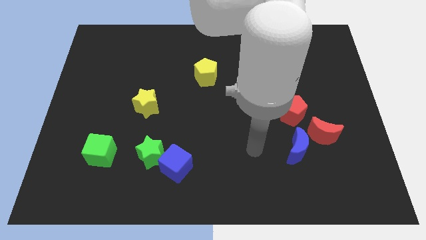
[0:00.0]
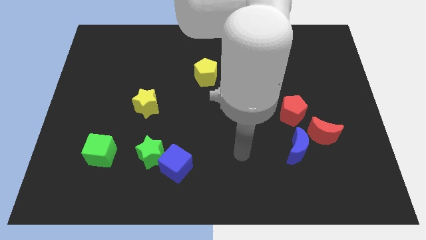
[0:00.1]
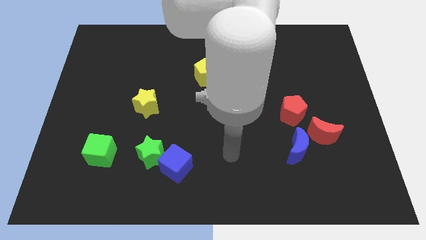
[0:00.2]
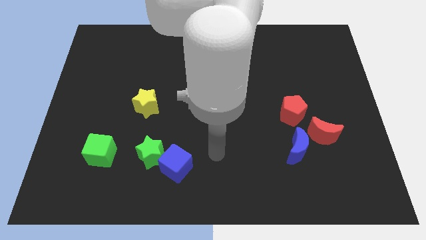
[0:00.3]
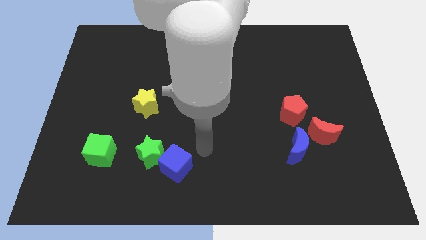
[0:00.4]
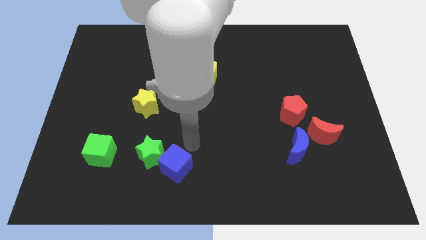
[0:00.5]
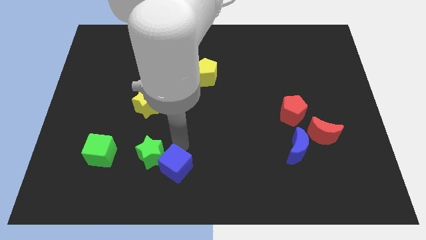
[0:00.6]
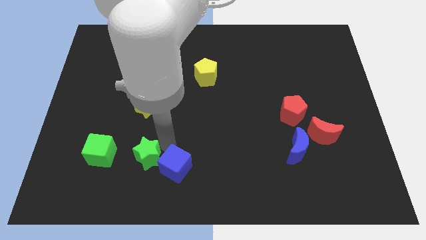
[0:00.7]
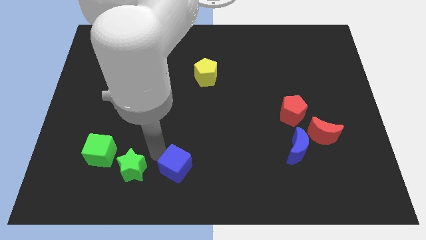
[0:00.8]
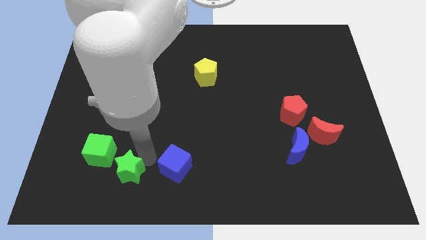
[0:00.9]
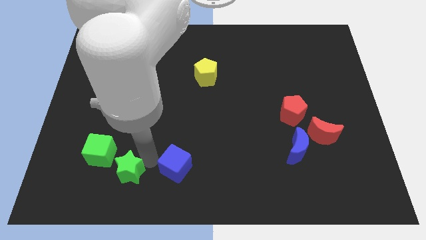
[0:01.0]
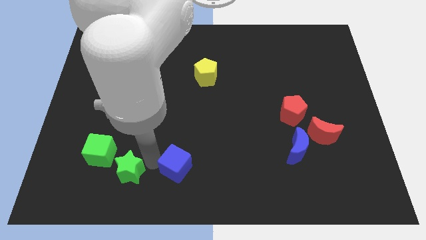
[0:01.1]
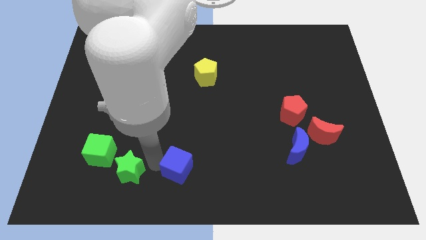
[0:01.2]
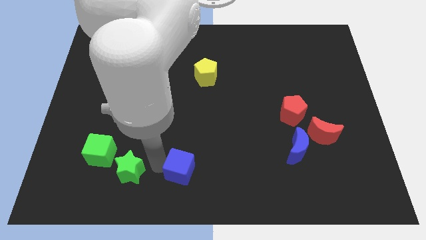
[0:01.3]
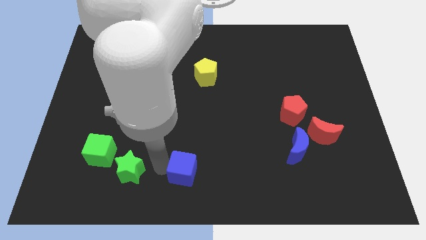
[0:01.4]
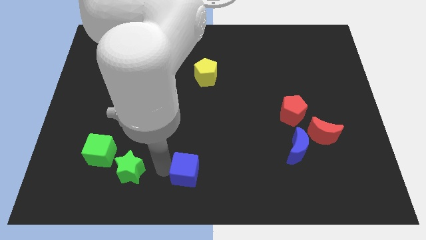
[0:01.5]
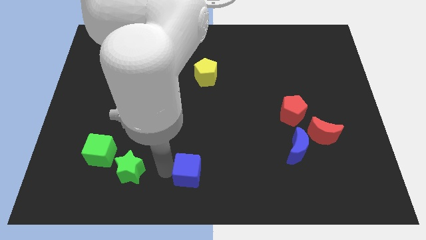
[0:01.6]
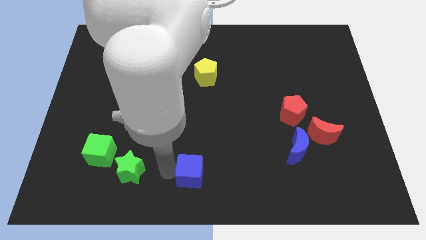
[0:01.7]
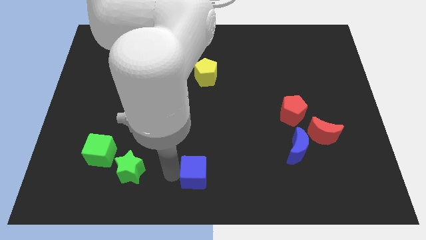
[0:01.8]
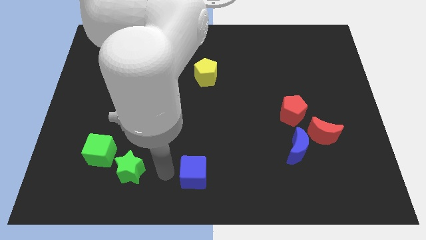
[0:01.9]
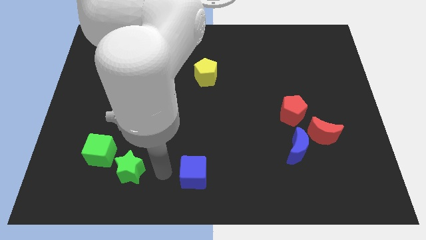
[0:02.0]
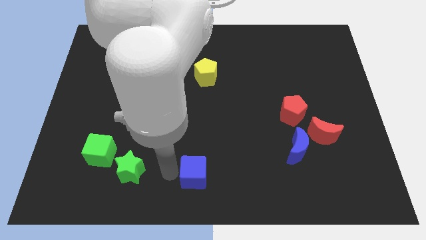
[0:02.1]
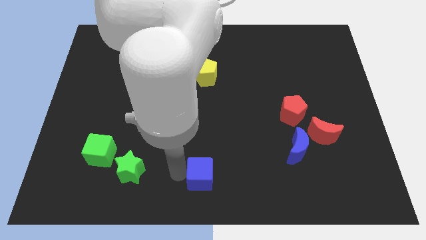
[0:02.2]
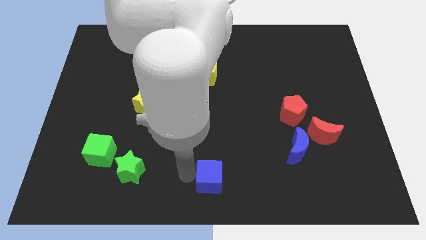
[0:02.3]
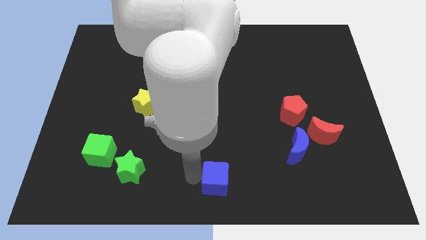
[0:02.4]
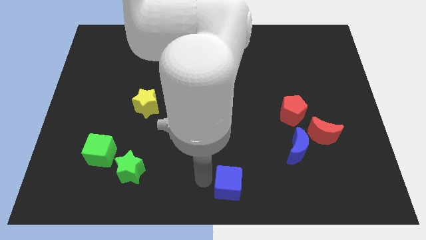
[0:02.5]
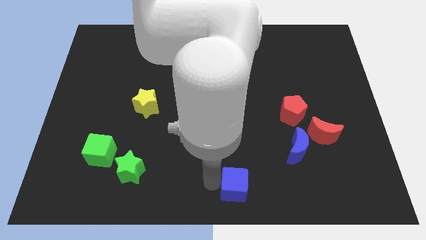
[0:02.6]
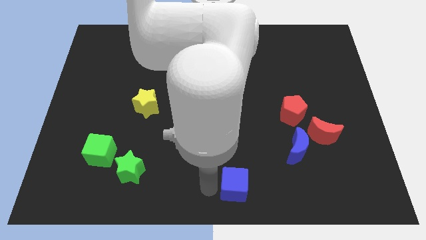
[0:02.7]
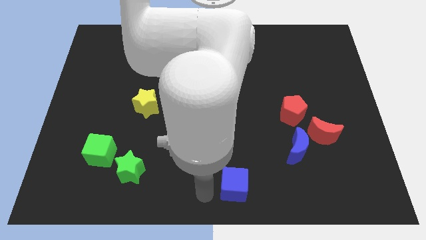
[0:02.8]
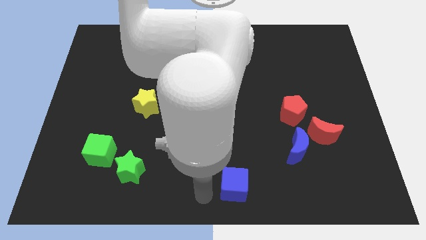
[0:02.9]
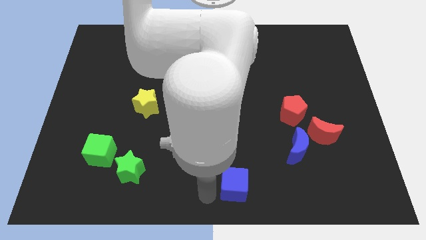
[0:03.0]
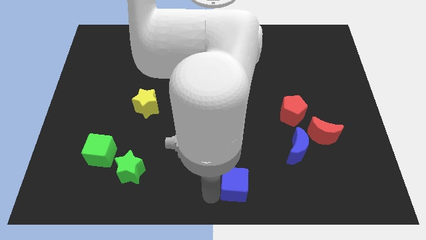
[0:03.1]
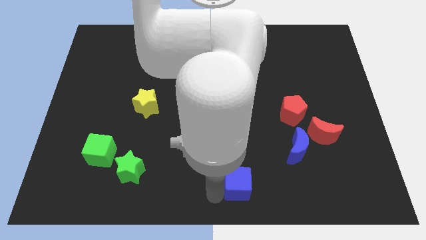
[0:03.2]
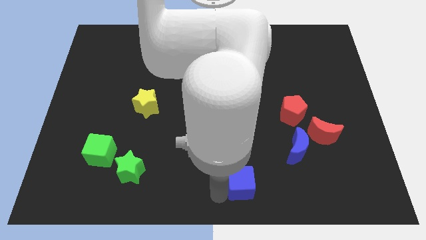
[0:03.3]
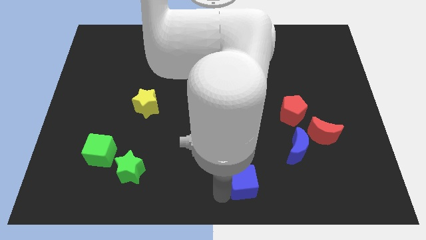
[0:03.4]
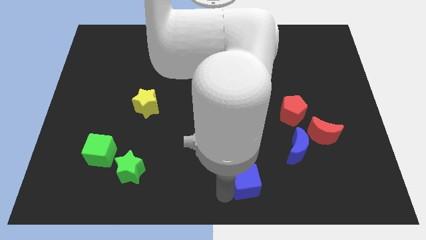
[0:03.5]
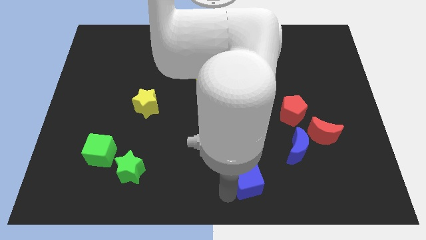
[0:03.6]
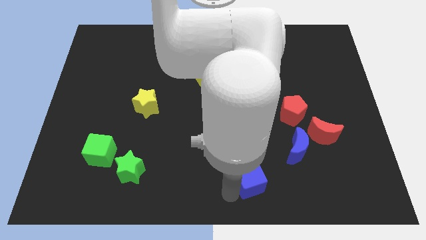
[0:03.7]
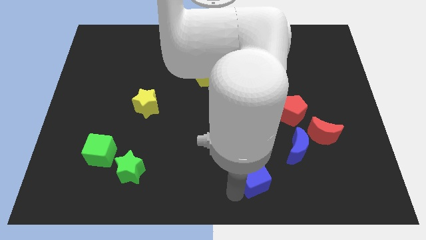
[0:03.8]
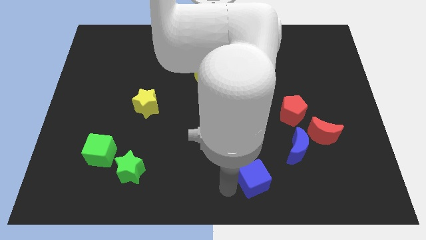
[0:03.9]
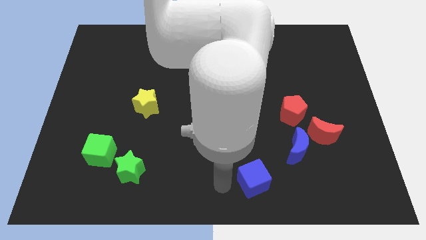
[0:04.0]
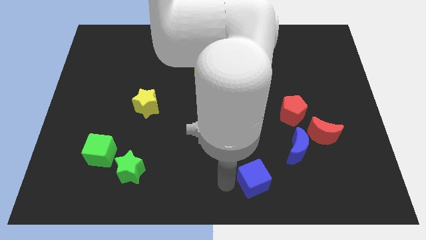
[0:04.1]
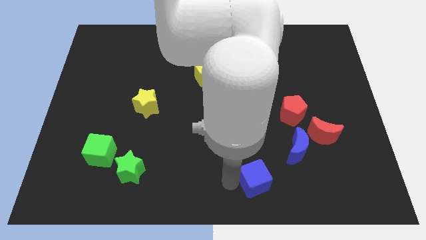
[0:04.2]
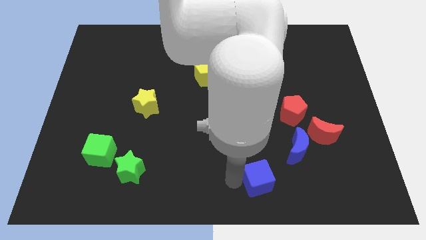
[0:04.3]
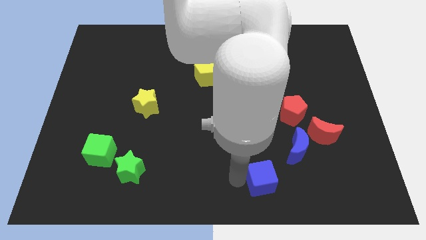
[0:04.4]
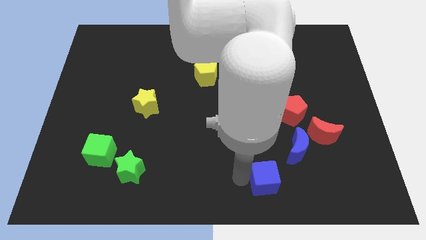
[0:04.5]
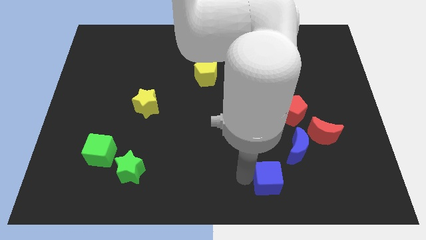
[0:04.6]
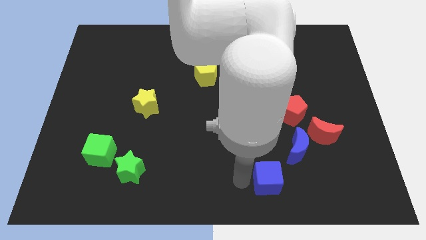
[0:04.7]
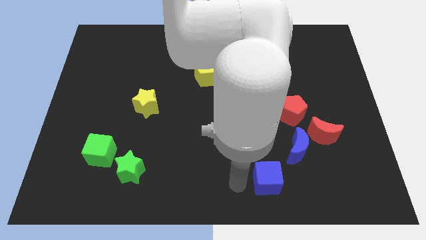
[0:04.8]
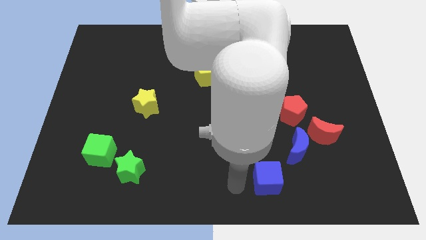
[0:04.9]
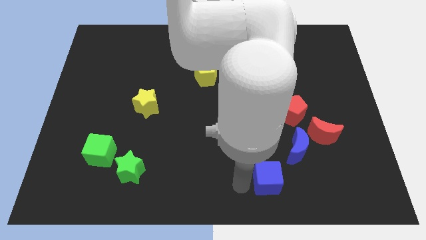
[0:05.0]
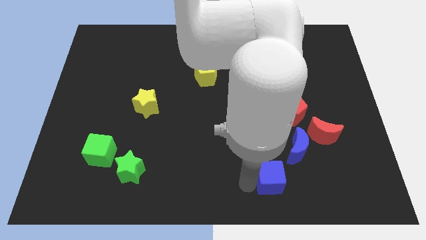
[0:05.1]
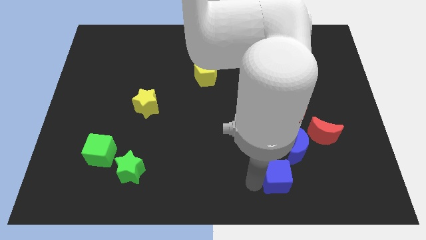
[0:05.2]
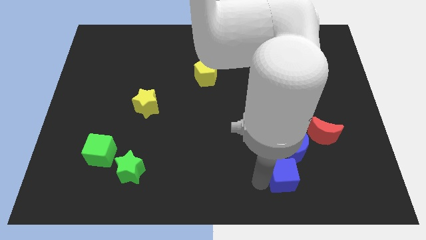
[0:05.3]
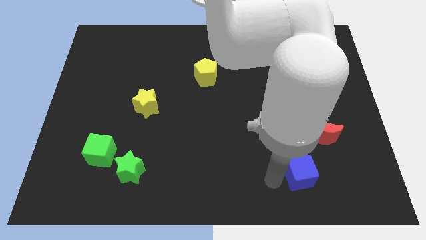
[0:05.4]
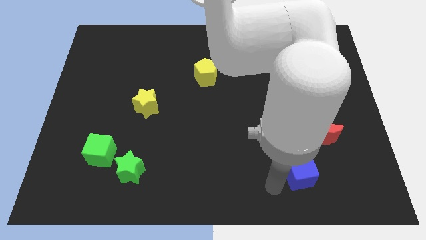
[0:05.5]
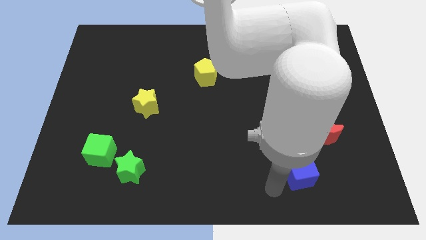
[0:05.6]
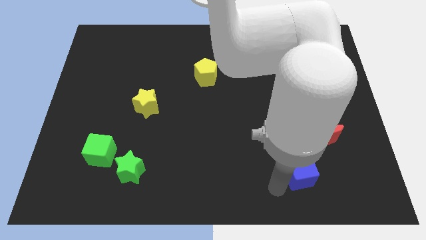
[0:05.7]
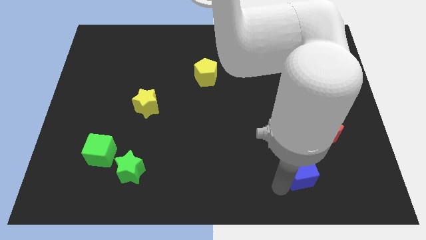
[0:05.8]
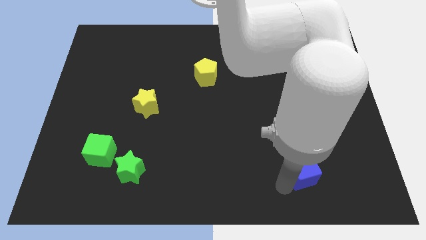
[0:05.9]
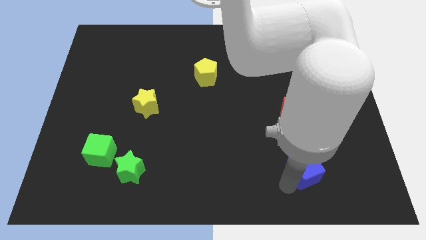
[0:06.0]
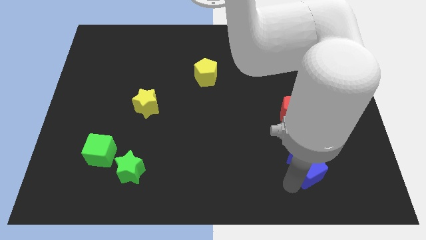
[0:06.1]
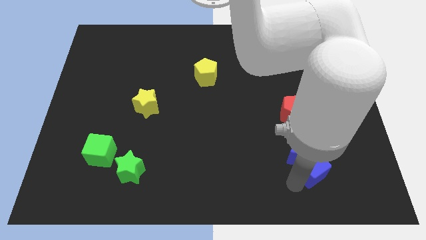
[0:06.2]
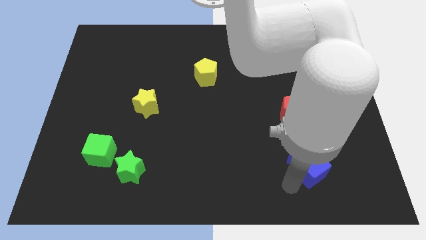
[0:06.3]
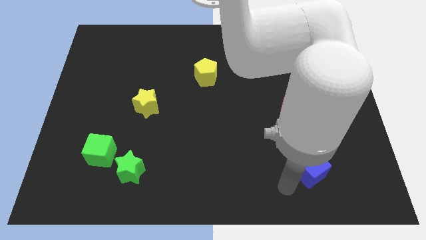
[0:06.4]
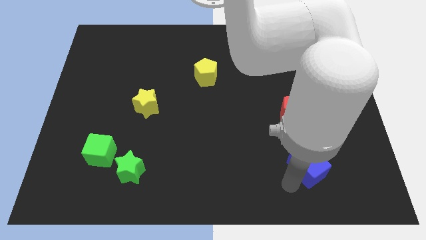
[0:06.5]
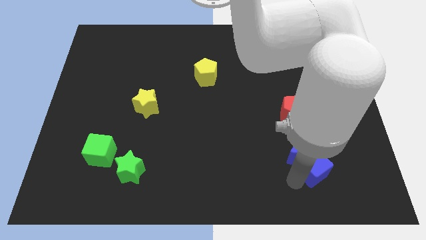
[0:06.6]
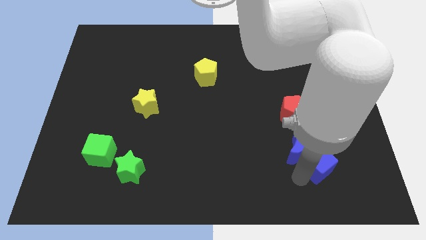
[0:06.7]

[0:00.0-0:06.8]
move the blue cube to the right side of the blue moon

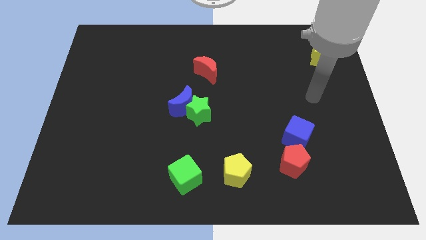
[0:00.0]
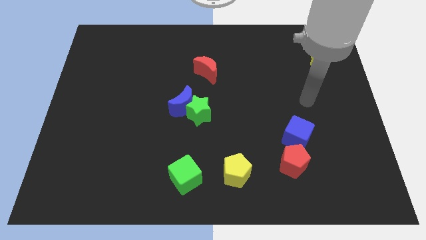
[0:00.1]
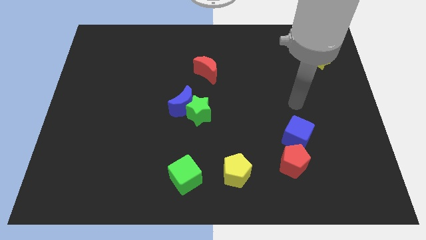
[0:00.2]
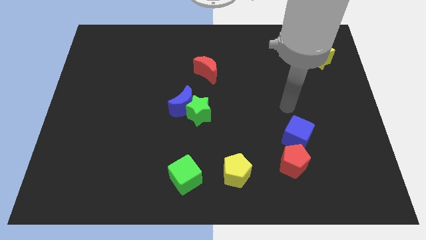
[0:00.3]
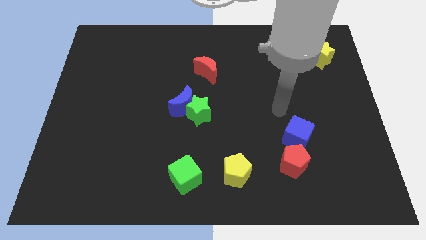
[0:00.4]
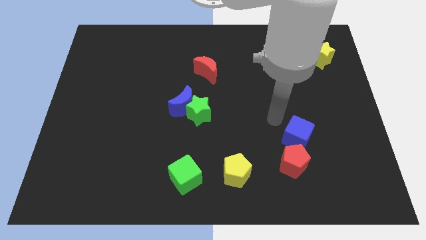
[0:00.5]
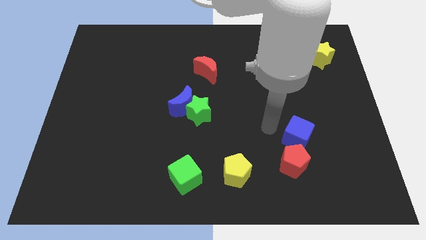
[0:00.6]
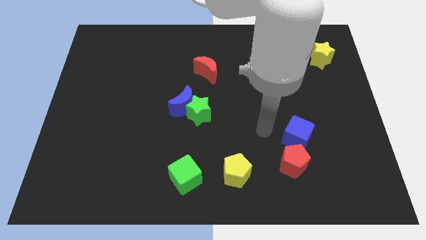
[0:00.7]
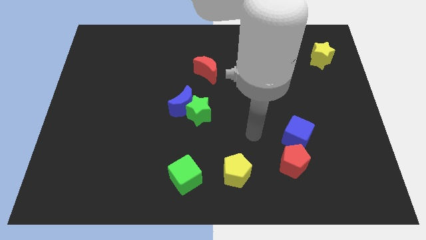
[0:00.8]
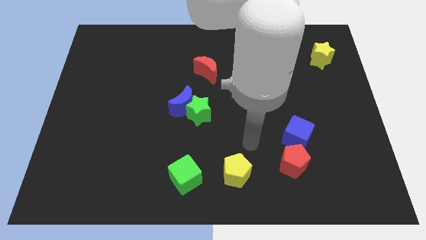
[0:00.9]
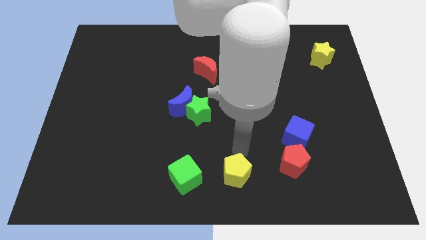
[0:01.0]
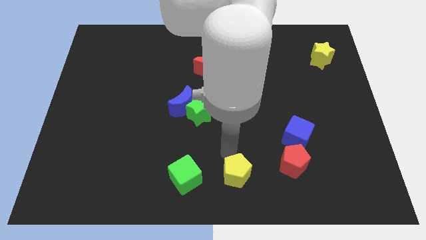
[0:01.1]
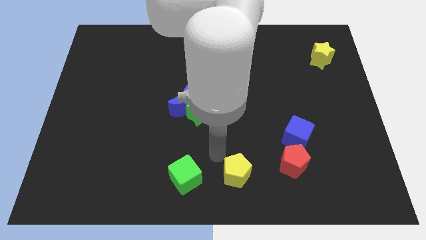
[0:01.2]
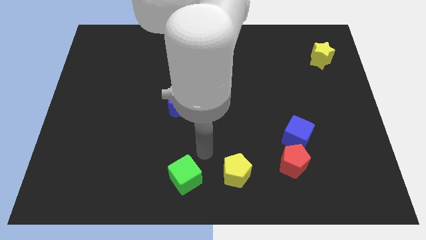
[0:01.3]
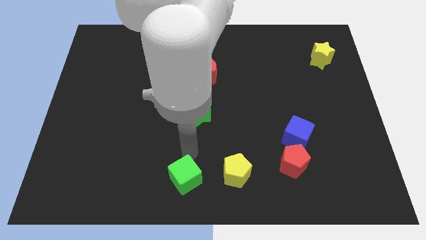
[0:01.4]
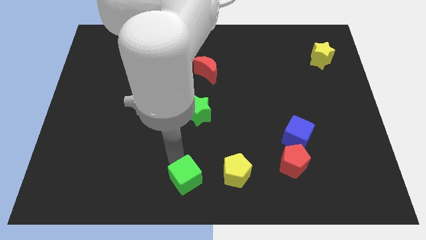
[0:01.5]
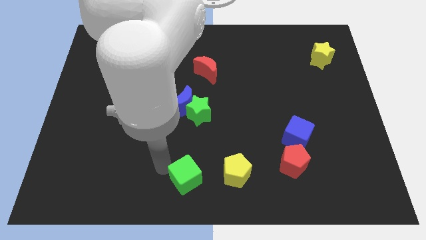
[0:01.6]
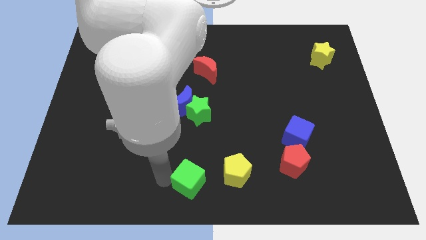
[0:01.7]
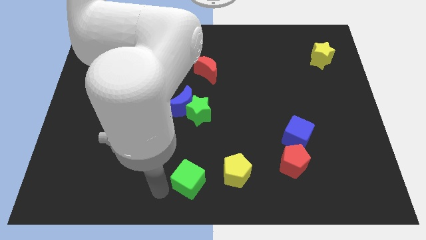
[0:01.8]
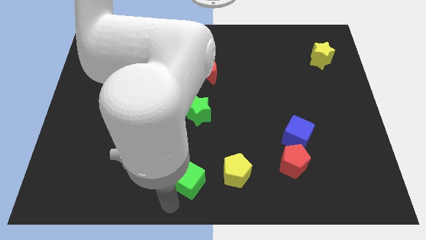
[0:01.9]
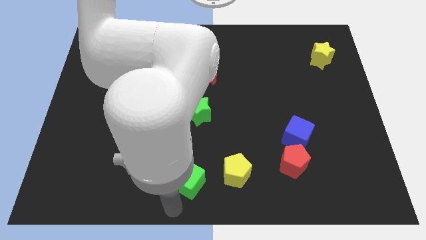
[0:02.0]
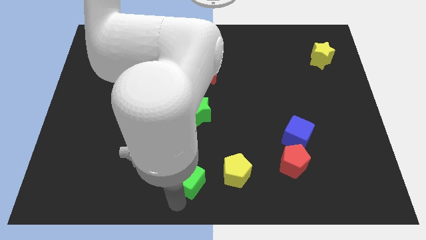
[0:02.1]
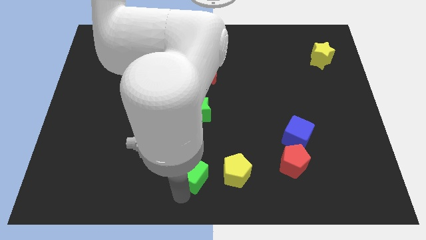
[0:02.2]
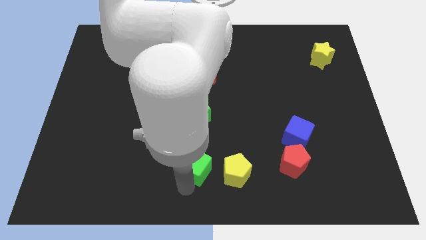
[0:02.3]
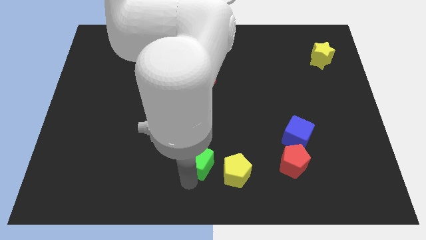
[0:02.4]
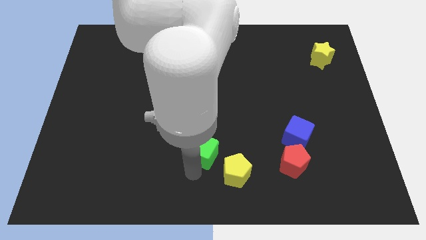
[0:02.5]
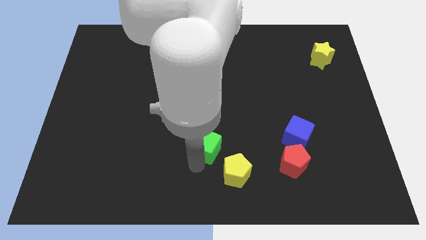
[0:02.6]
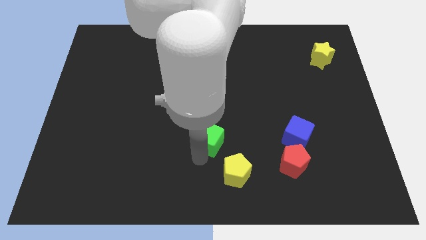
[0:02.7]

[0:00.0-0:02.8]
put the green cube diagonally down and to the right of the green star
